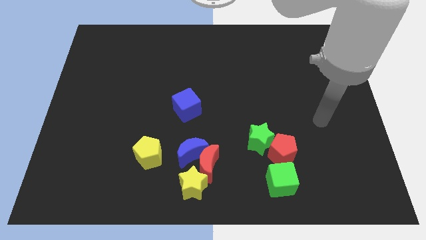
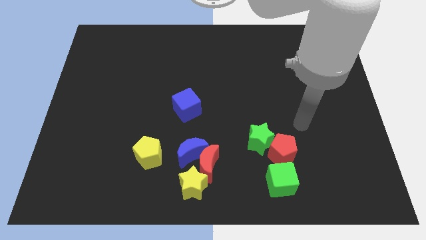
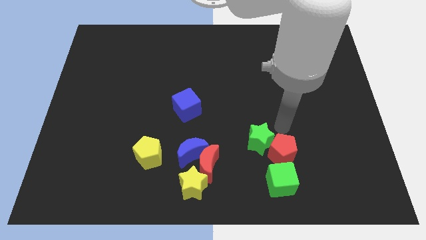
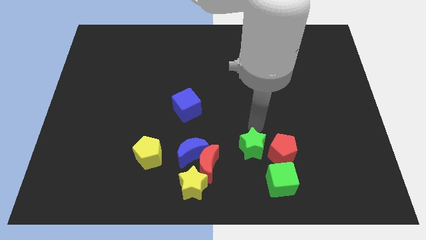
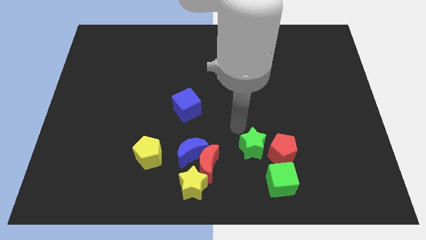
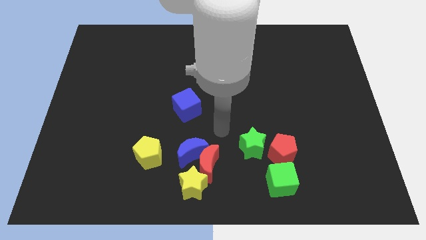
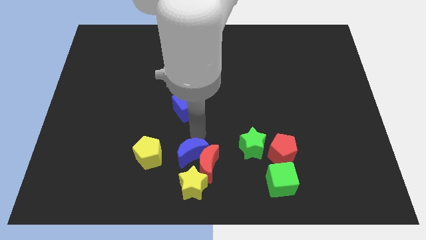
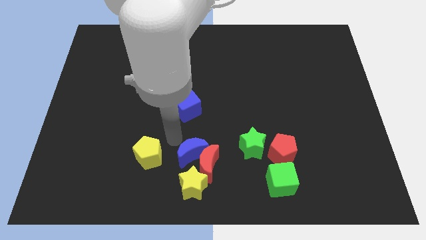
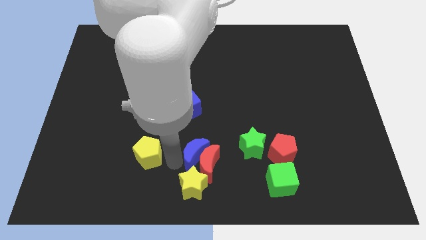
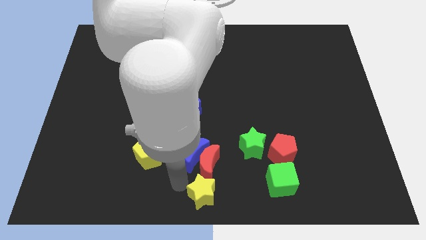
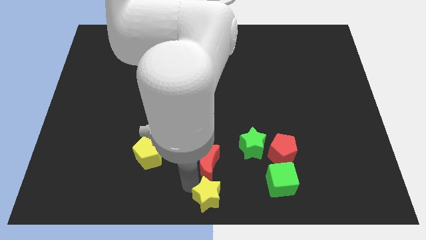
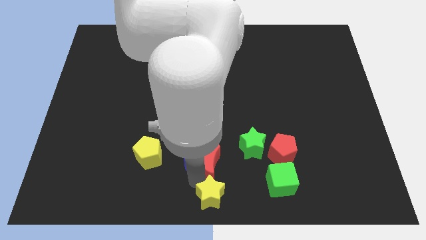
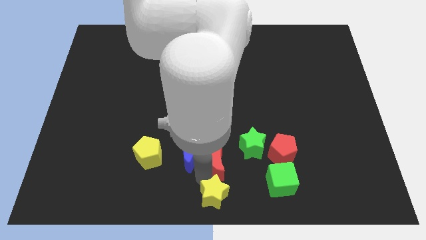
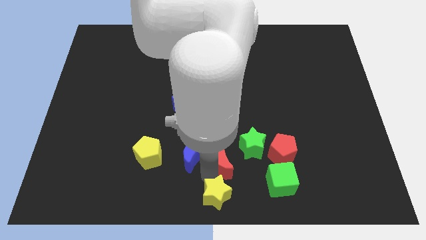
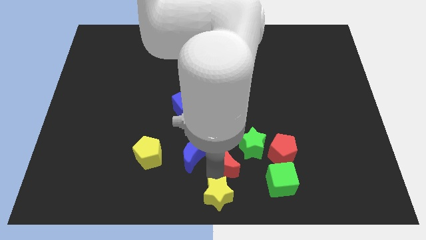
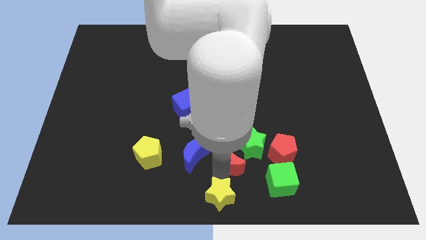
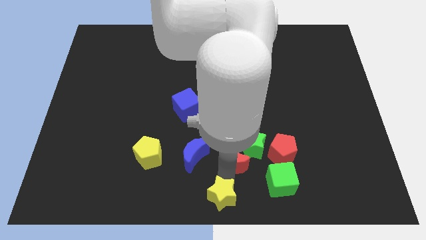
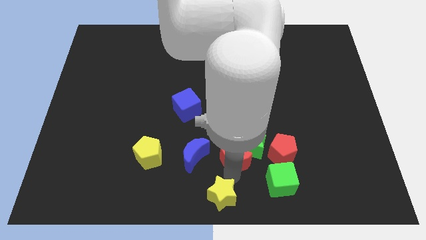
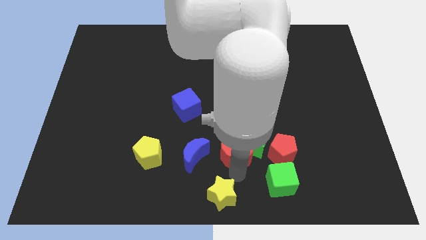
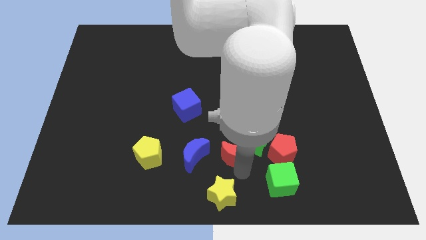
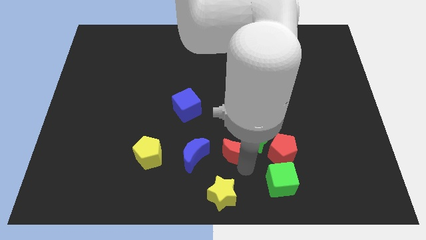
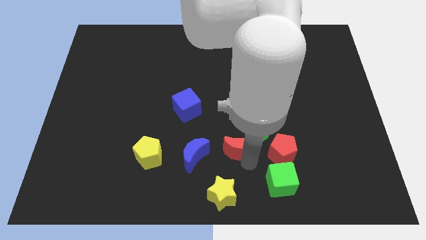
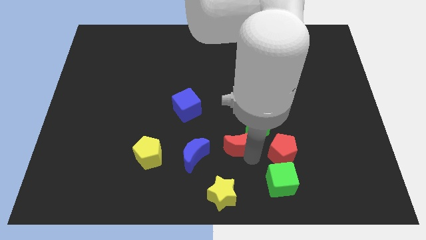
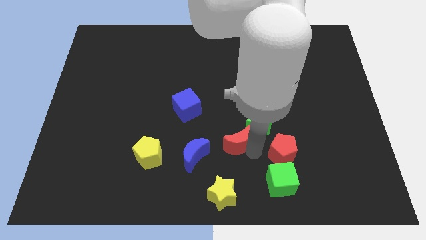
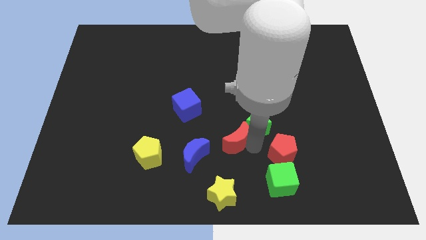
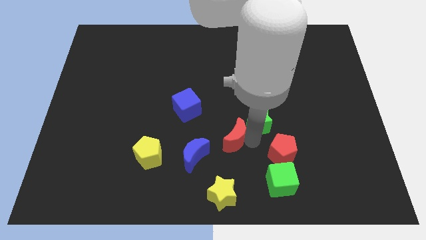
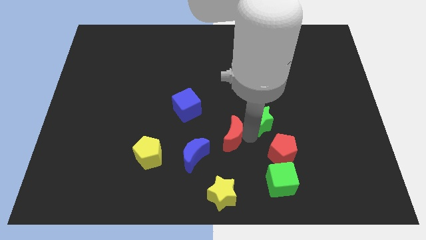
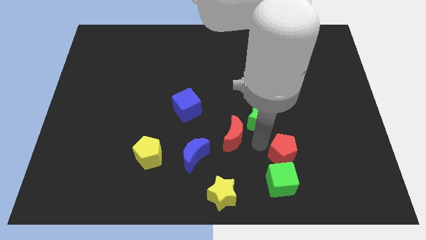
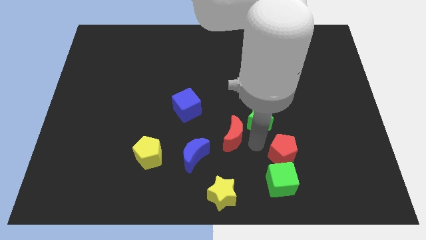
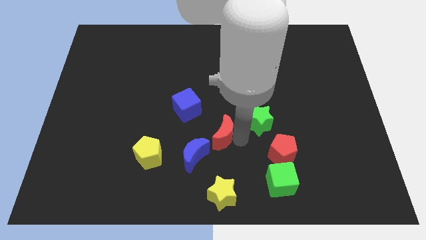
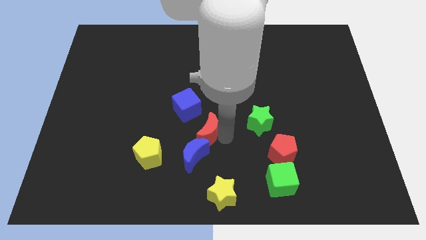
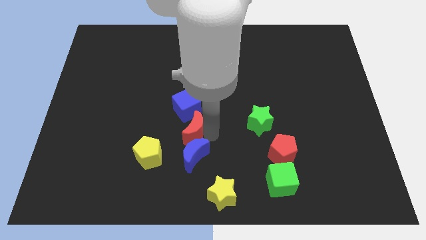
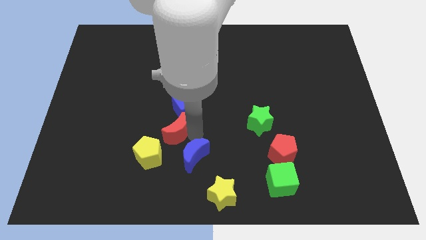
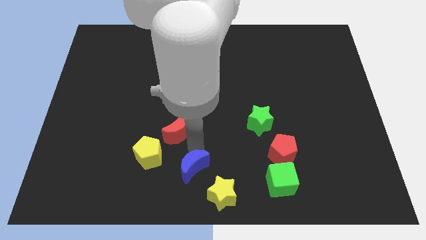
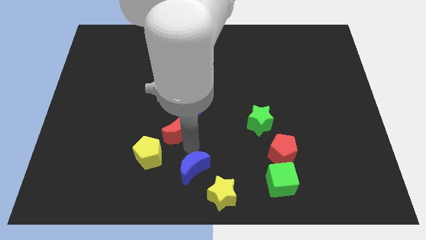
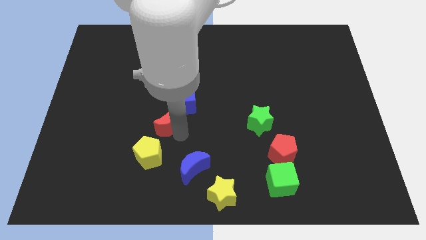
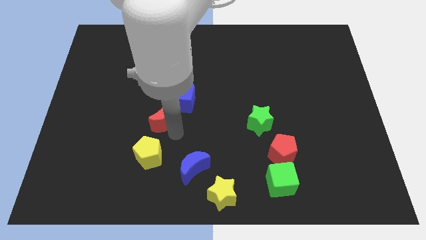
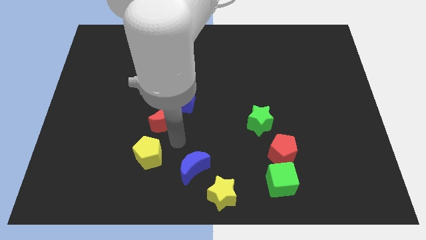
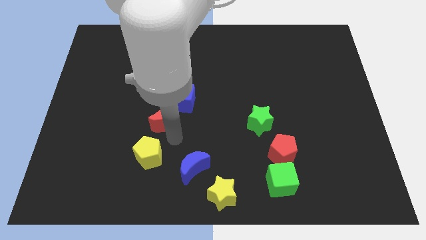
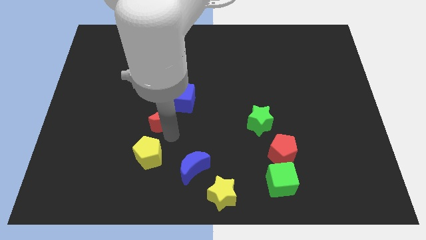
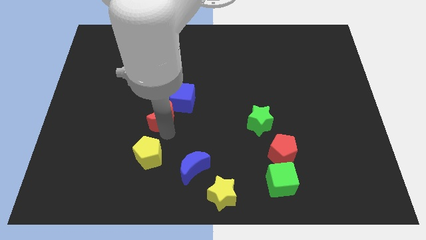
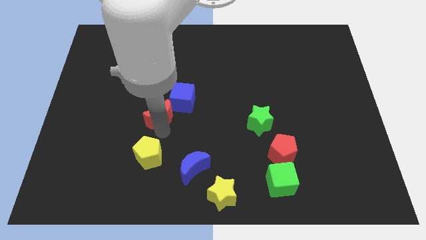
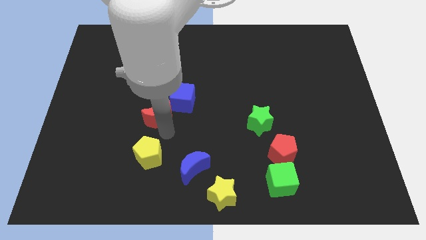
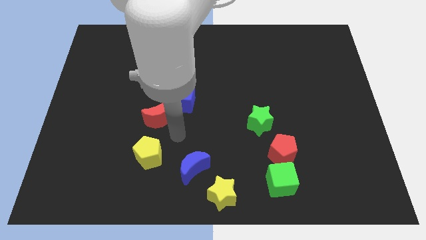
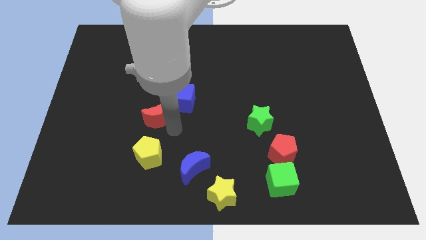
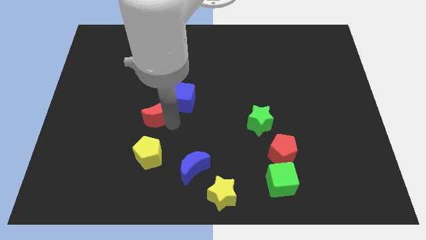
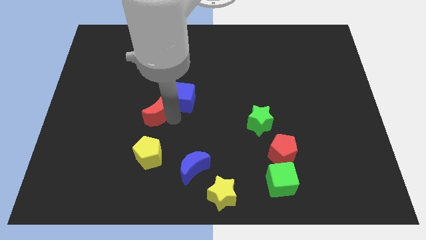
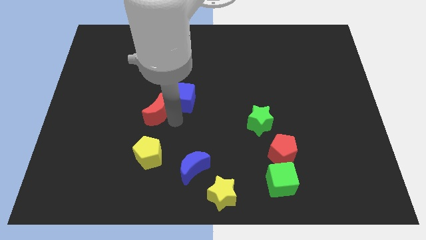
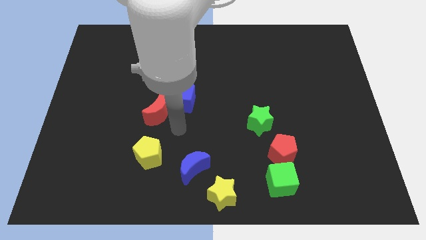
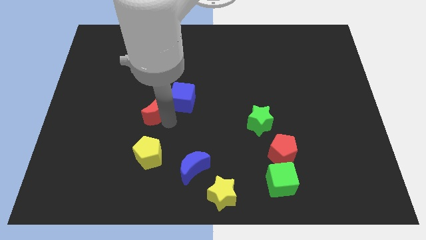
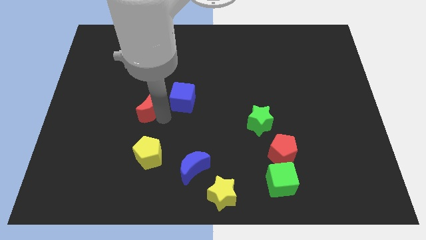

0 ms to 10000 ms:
move the red moon upwards and to the left

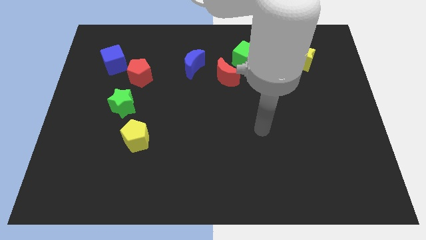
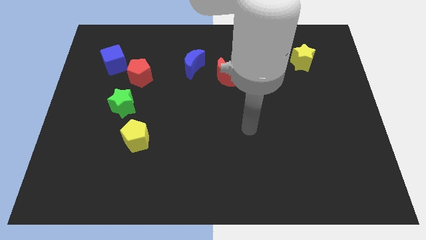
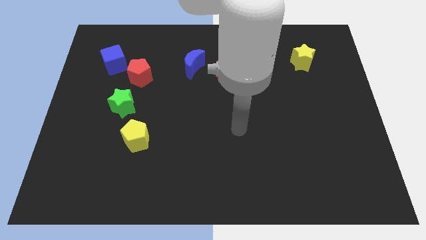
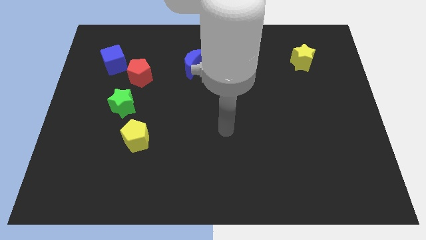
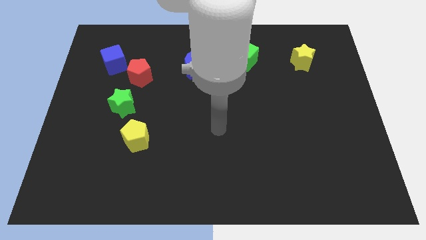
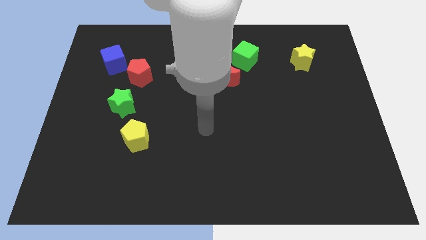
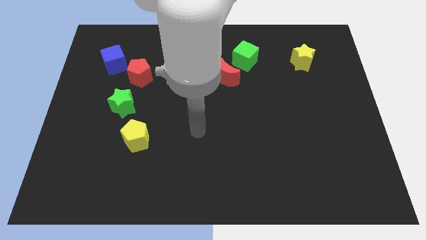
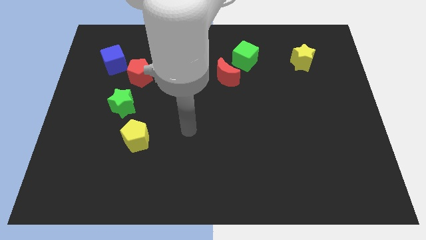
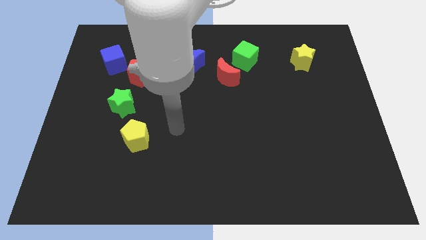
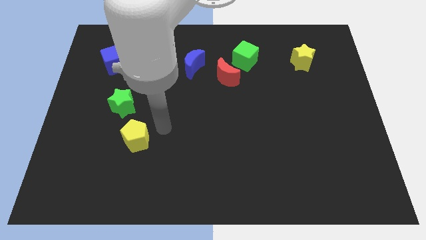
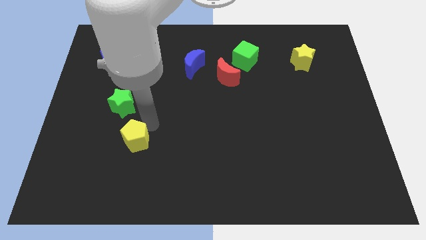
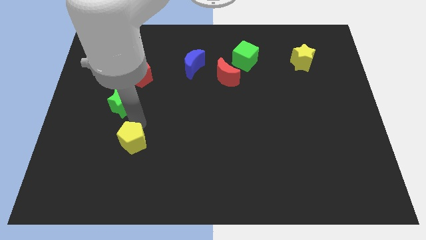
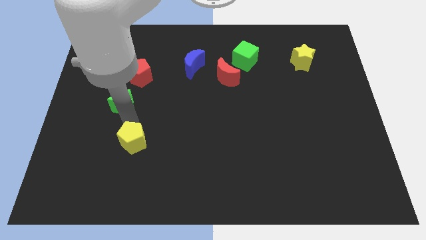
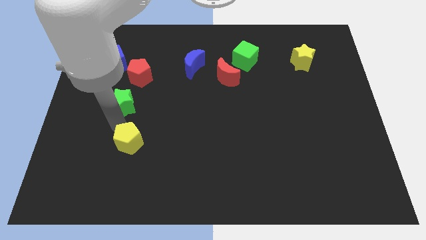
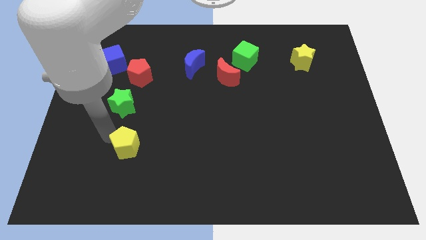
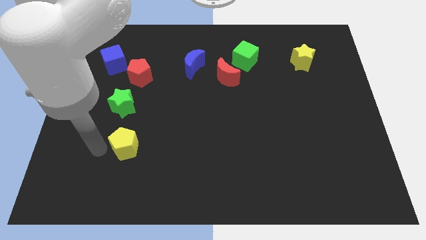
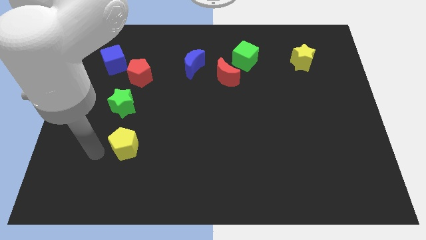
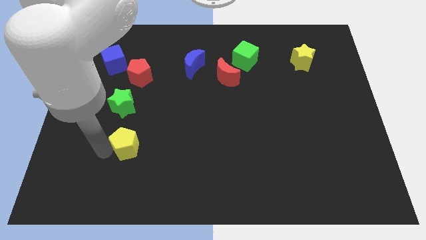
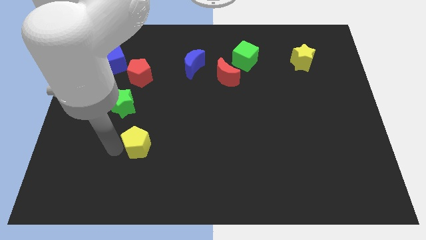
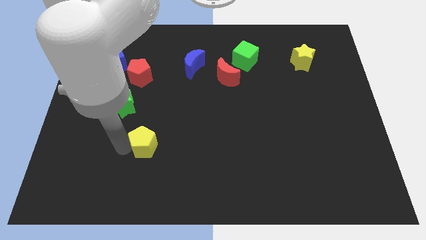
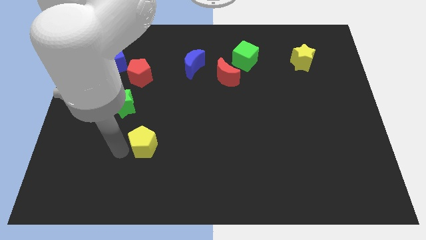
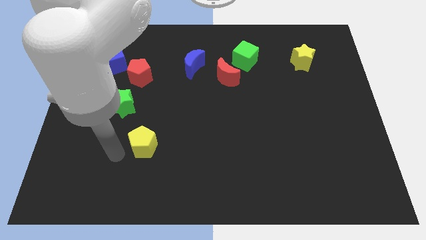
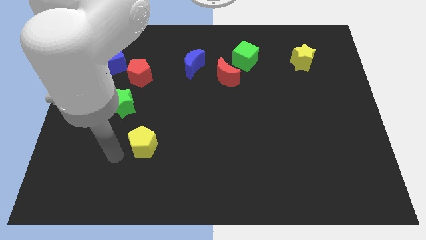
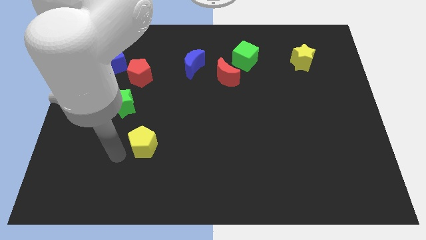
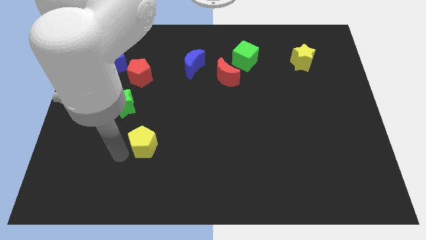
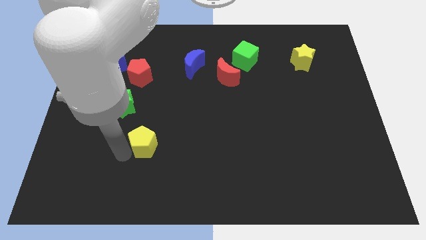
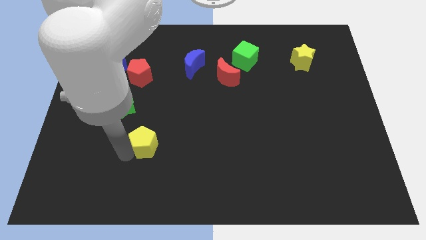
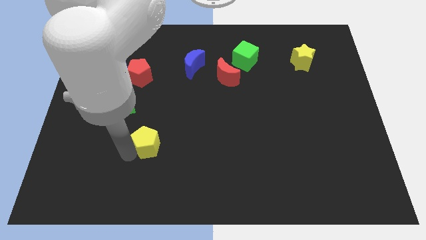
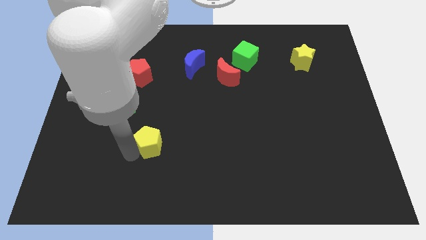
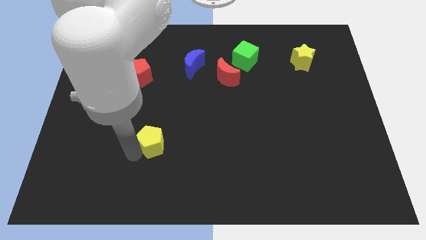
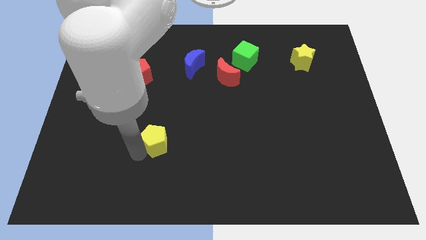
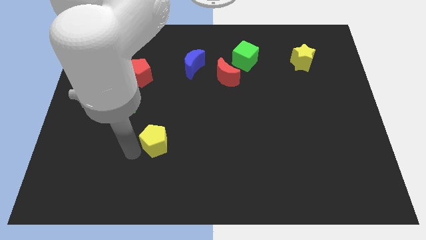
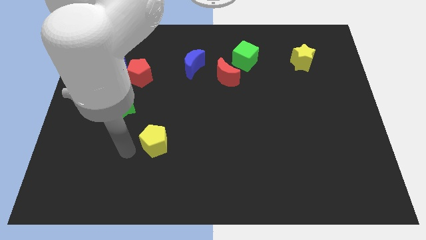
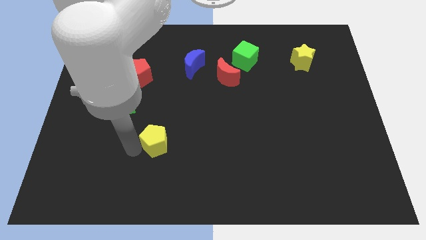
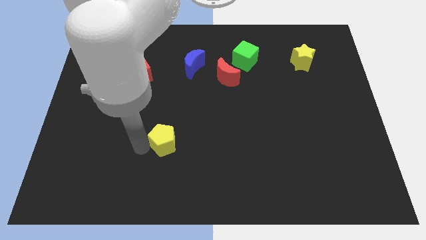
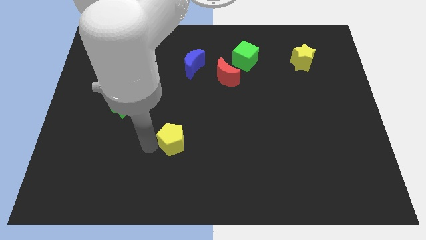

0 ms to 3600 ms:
move the yellow pentagon right a little bit
